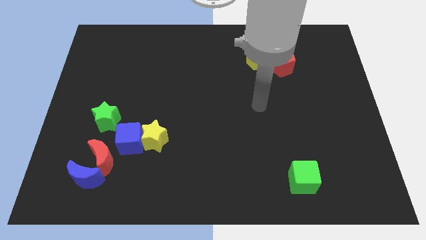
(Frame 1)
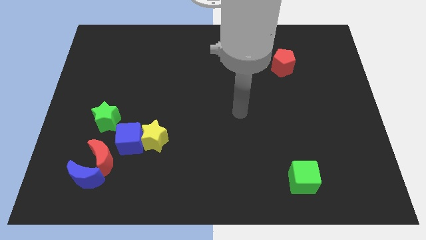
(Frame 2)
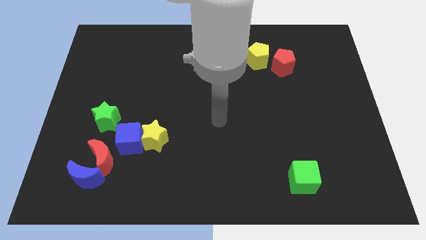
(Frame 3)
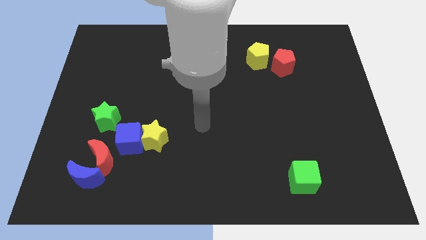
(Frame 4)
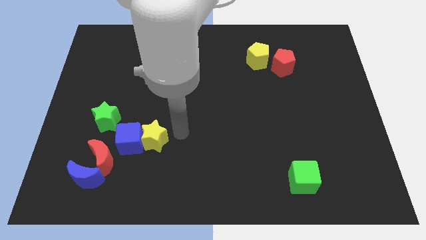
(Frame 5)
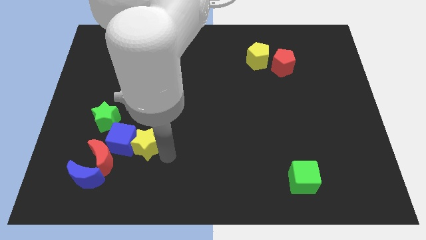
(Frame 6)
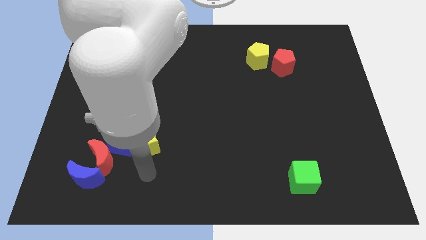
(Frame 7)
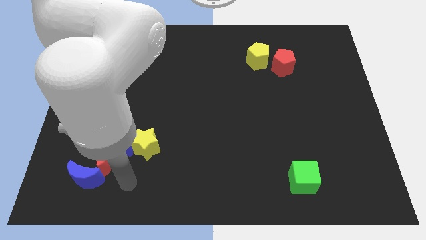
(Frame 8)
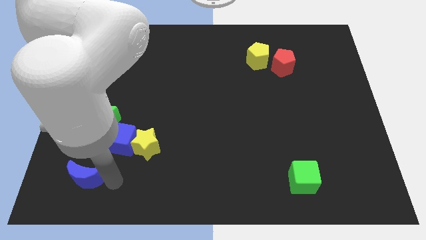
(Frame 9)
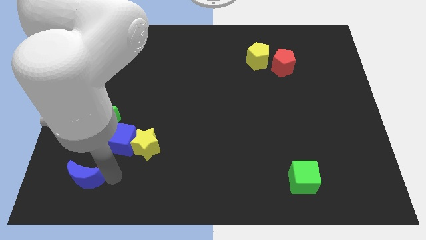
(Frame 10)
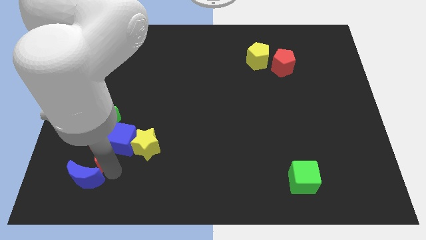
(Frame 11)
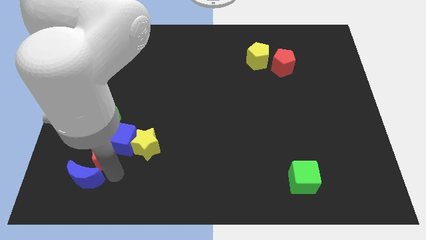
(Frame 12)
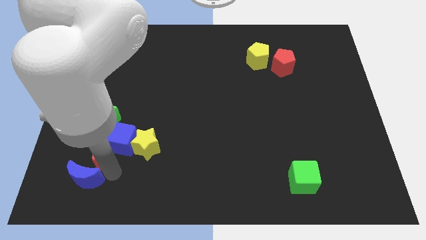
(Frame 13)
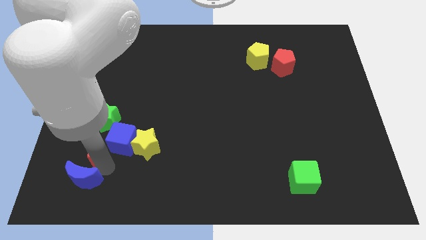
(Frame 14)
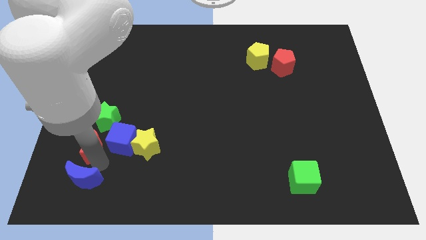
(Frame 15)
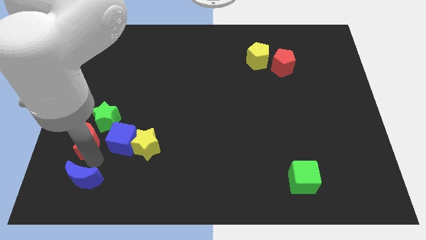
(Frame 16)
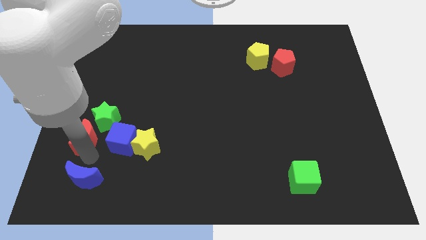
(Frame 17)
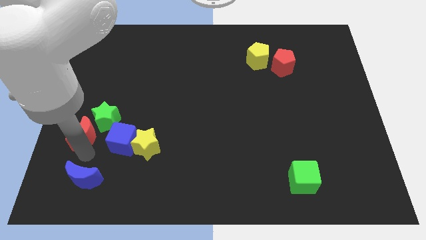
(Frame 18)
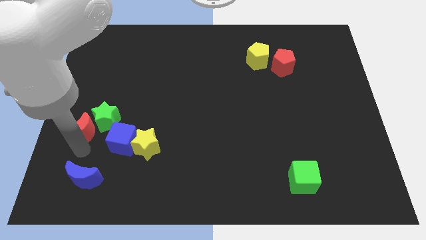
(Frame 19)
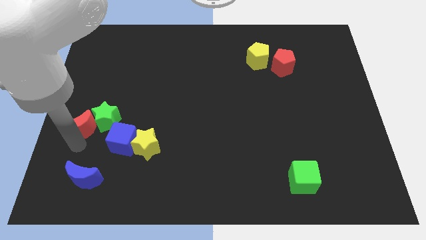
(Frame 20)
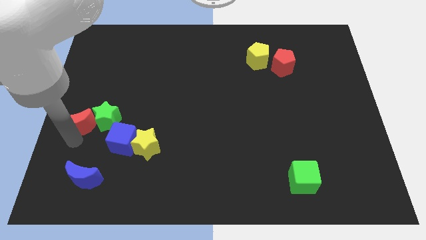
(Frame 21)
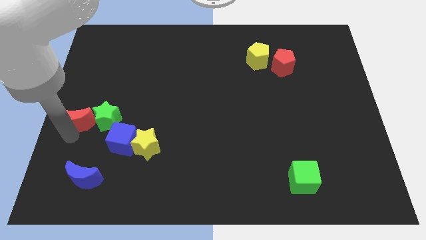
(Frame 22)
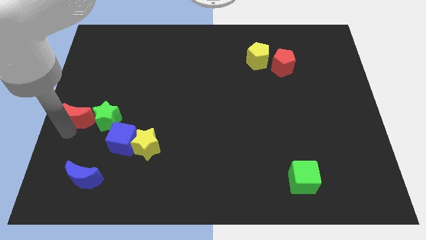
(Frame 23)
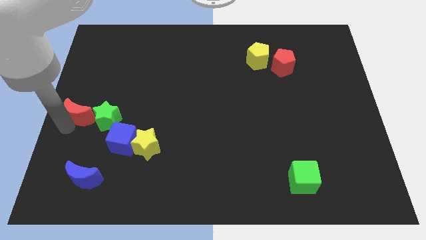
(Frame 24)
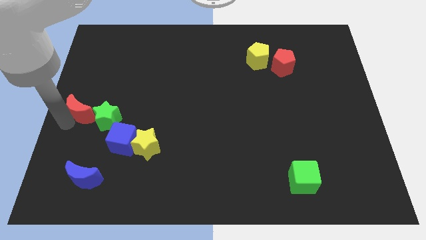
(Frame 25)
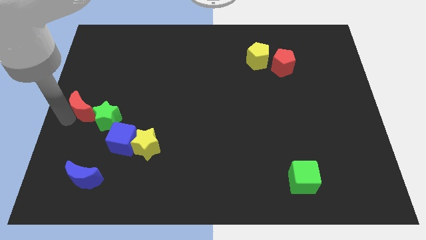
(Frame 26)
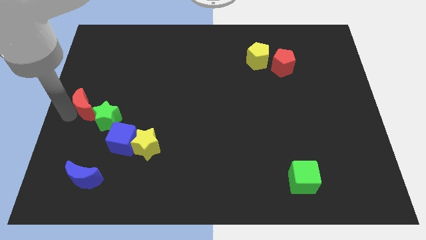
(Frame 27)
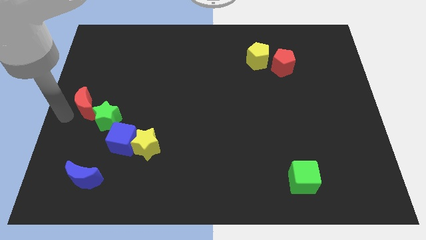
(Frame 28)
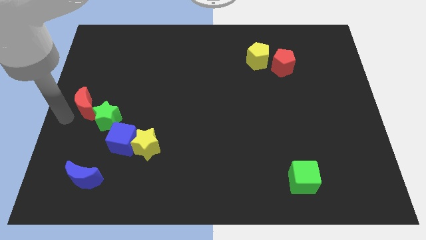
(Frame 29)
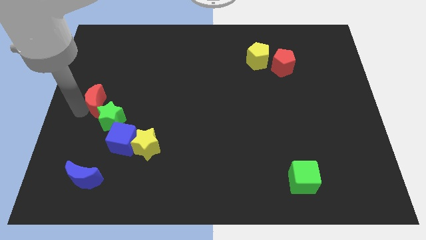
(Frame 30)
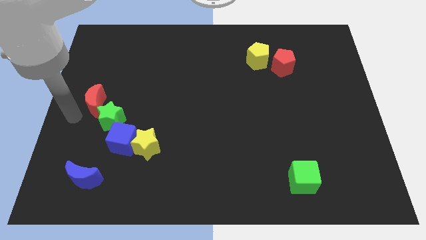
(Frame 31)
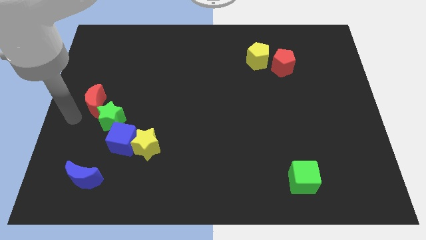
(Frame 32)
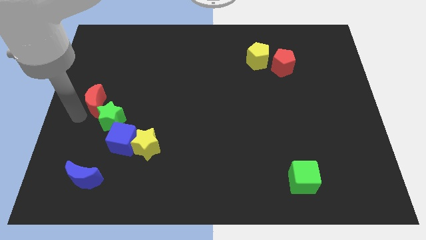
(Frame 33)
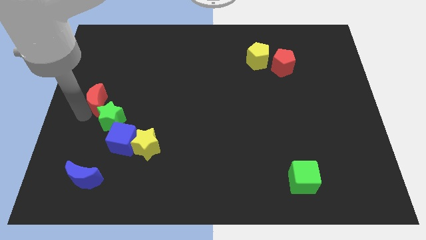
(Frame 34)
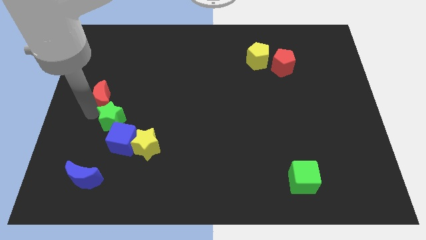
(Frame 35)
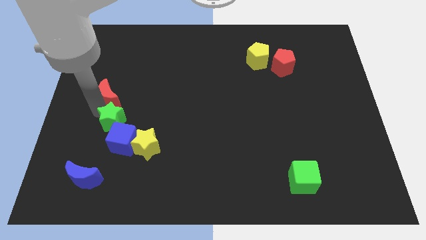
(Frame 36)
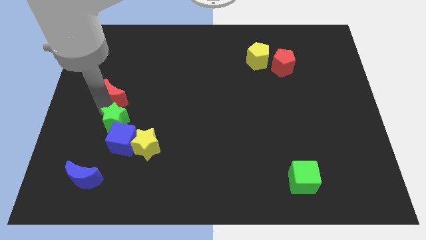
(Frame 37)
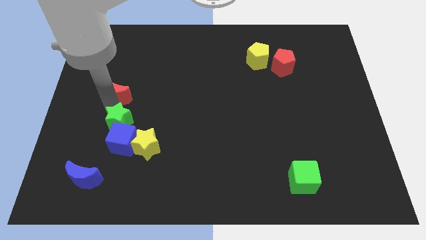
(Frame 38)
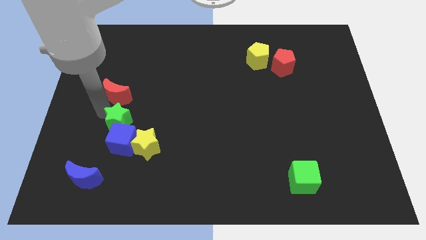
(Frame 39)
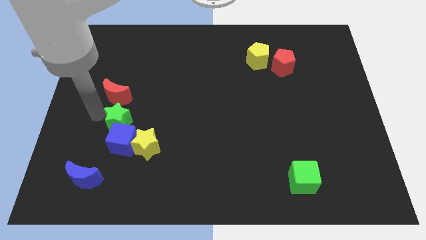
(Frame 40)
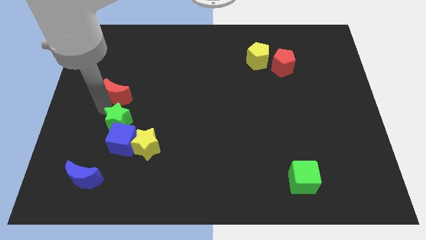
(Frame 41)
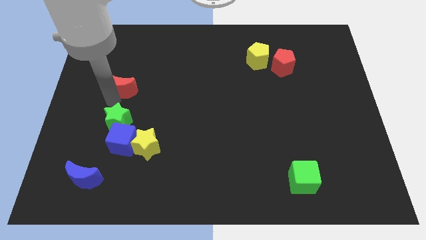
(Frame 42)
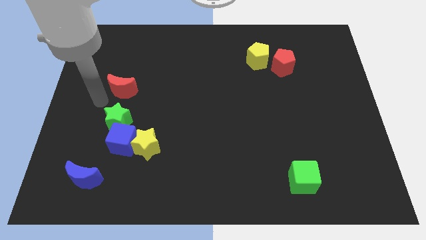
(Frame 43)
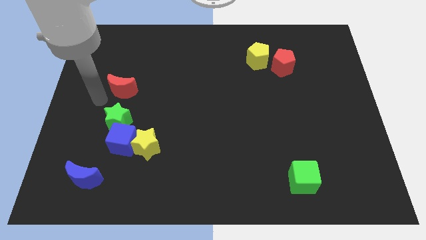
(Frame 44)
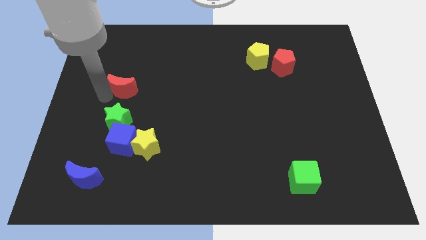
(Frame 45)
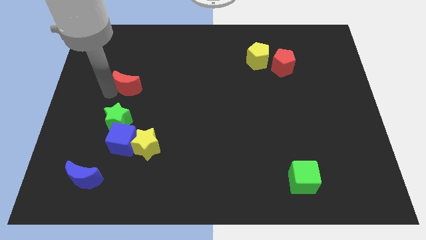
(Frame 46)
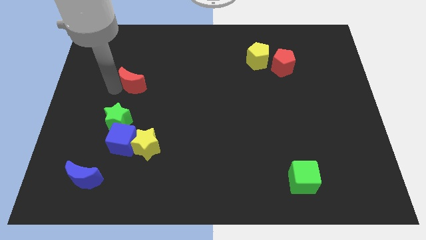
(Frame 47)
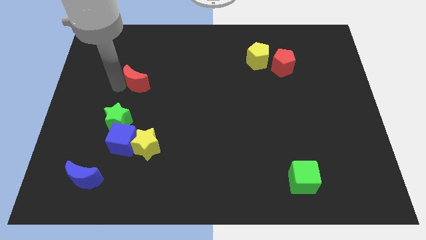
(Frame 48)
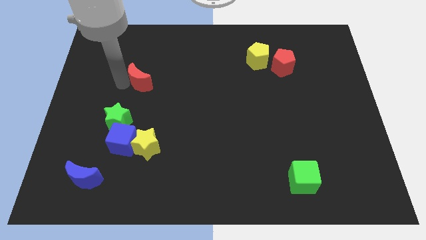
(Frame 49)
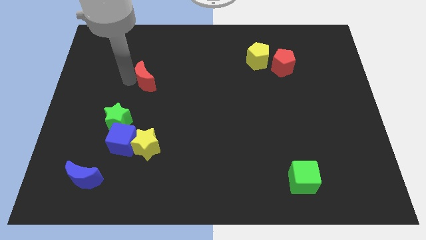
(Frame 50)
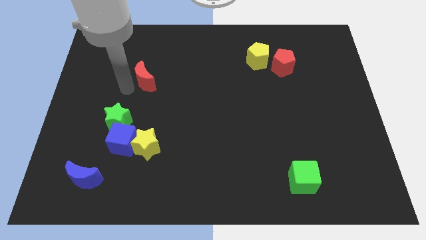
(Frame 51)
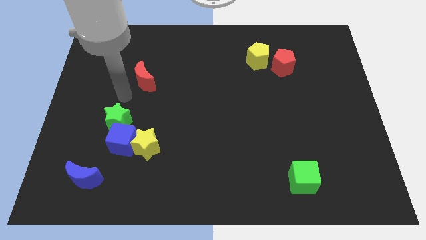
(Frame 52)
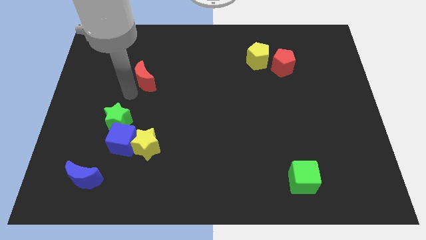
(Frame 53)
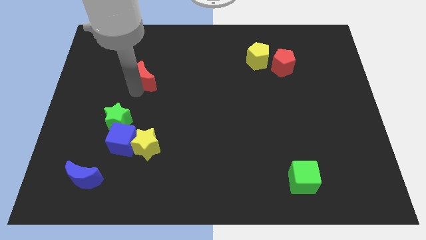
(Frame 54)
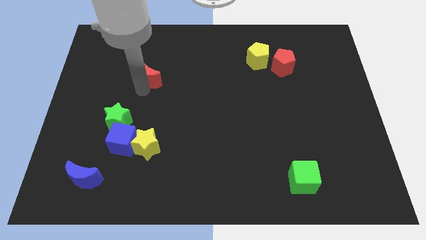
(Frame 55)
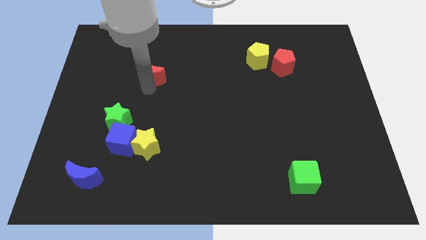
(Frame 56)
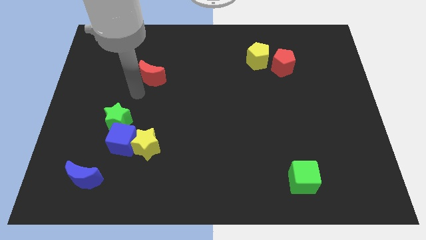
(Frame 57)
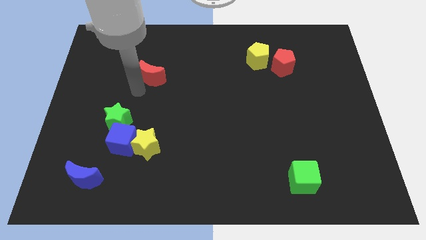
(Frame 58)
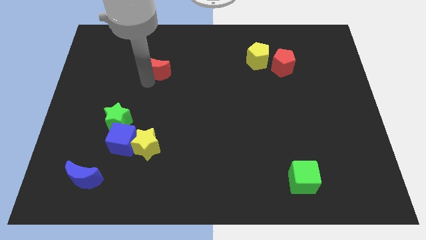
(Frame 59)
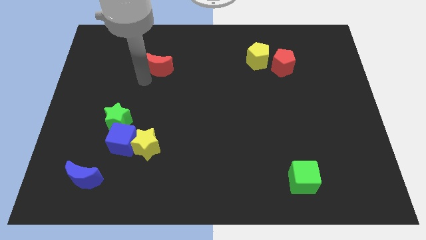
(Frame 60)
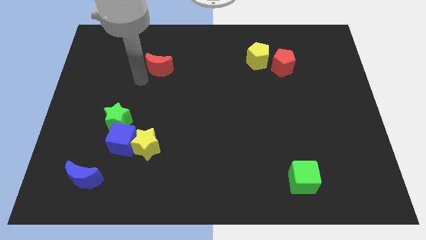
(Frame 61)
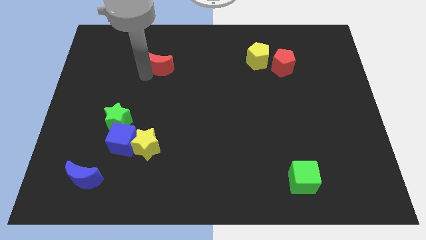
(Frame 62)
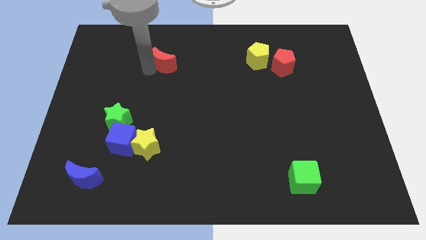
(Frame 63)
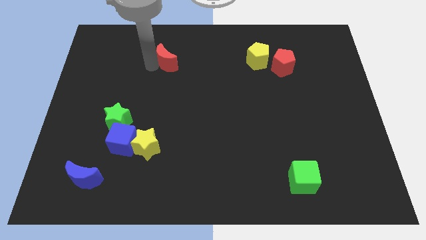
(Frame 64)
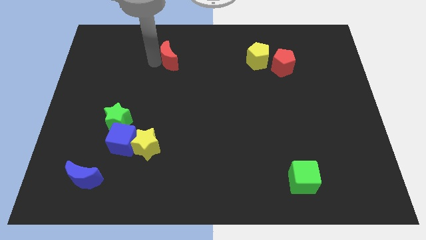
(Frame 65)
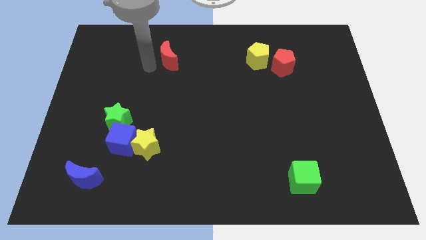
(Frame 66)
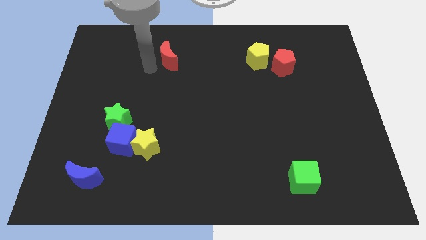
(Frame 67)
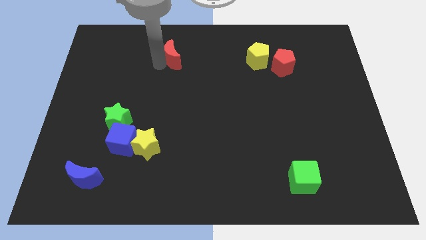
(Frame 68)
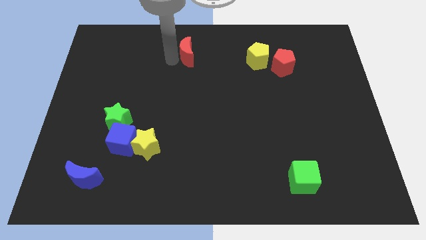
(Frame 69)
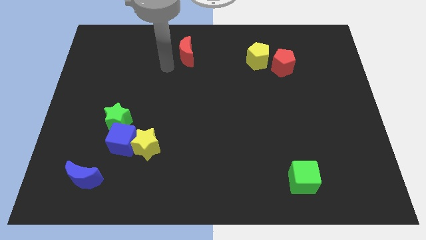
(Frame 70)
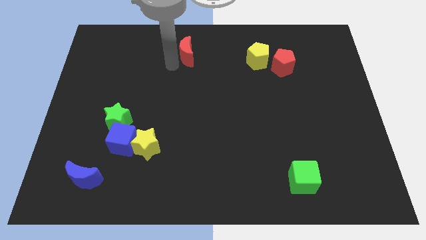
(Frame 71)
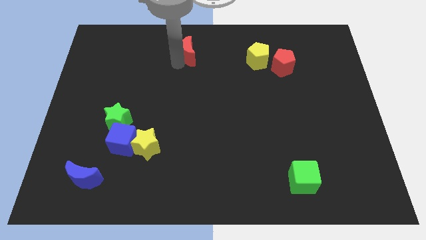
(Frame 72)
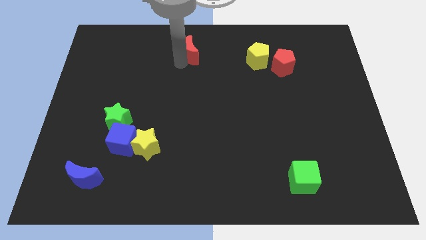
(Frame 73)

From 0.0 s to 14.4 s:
put the red moon to the top side
